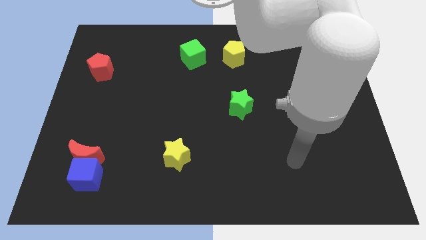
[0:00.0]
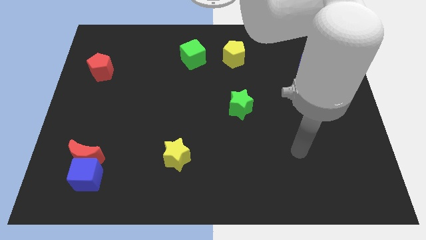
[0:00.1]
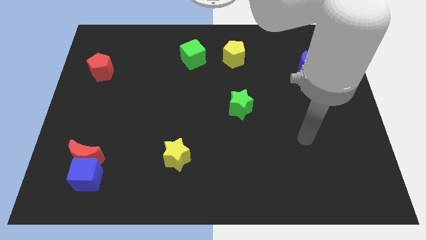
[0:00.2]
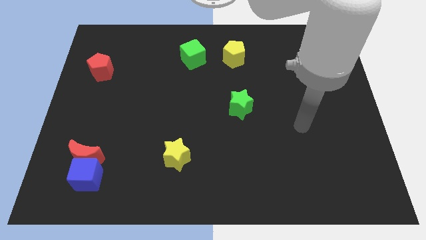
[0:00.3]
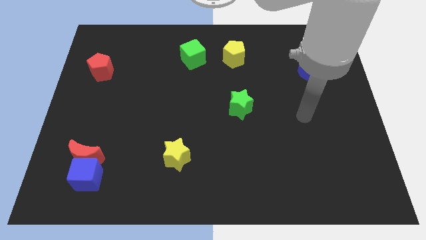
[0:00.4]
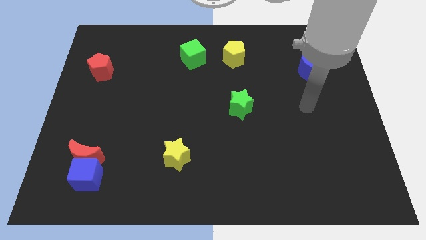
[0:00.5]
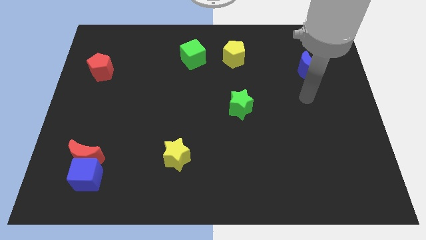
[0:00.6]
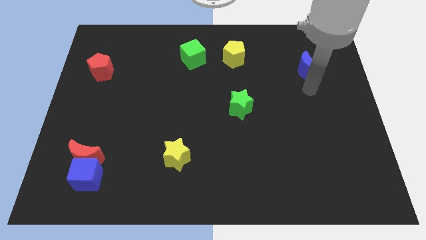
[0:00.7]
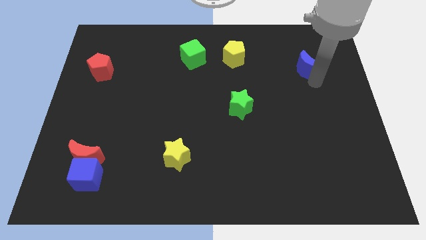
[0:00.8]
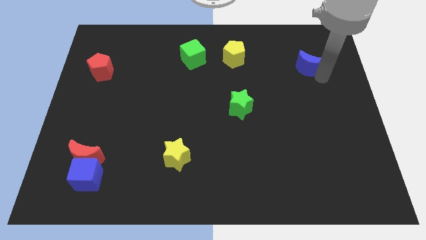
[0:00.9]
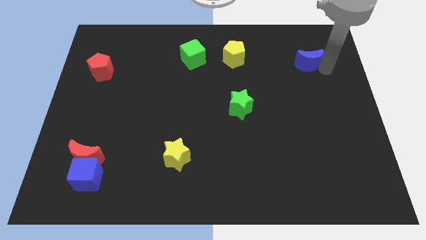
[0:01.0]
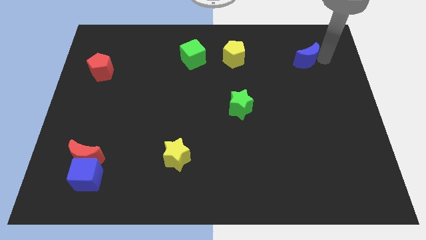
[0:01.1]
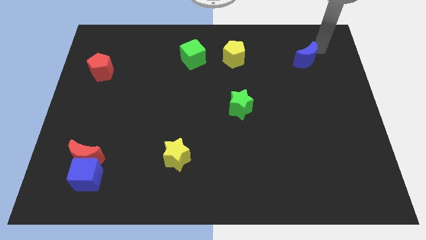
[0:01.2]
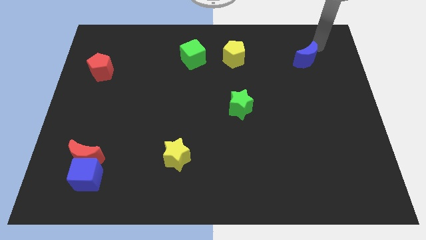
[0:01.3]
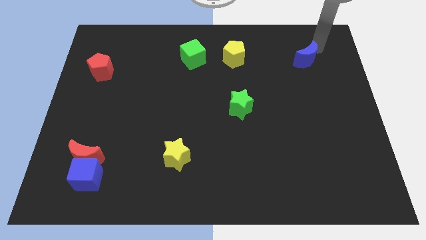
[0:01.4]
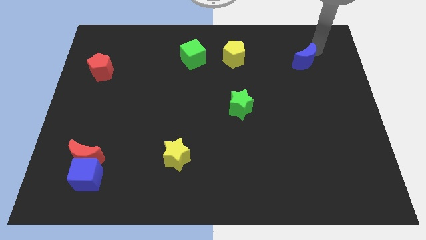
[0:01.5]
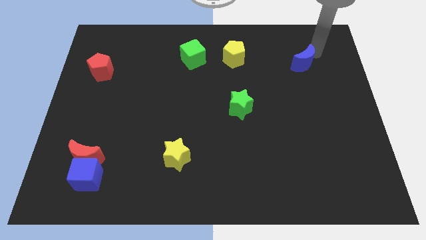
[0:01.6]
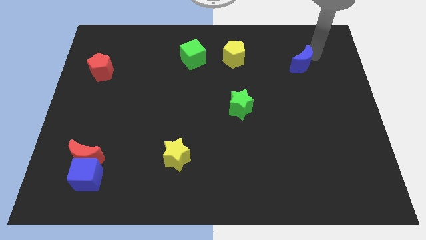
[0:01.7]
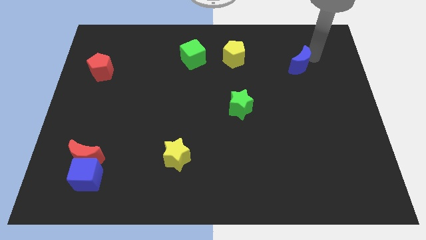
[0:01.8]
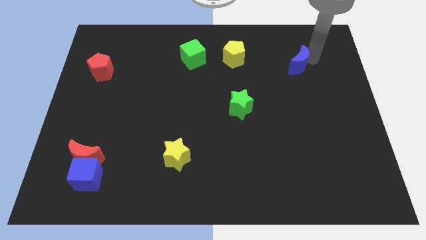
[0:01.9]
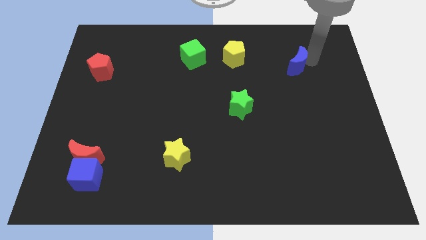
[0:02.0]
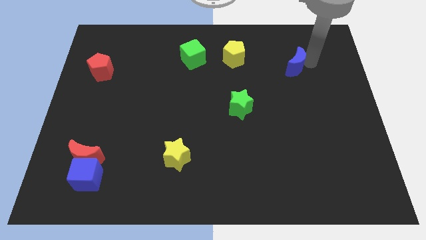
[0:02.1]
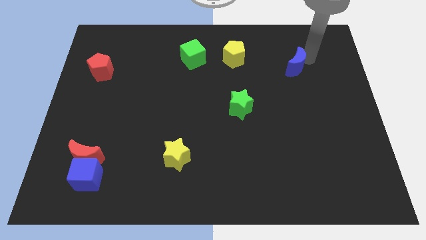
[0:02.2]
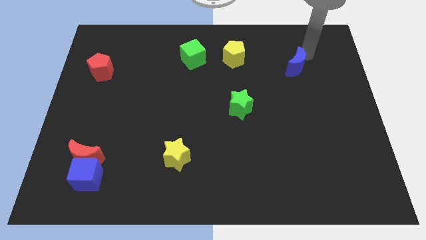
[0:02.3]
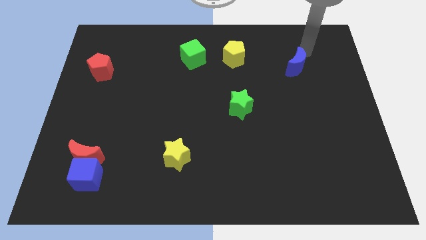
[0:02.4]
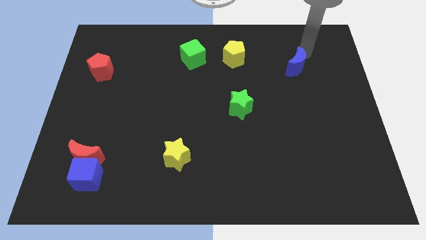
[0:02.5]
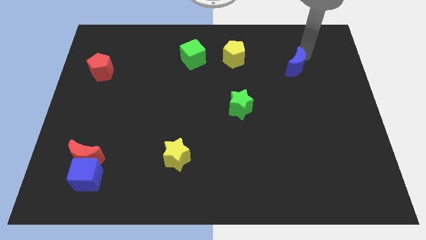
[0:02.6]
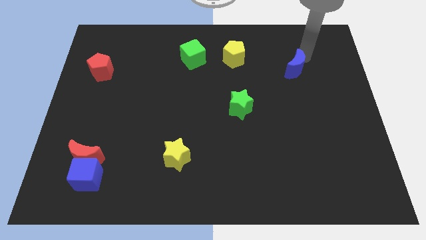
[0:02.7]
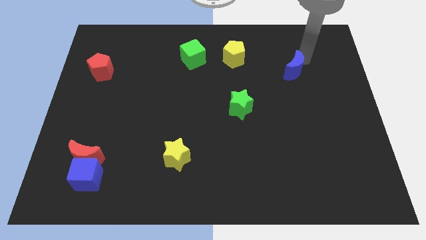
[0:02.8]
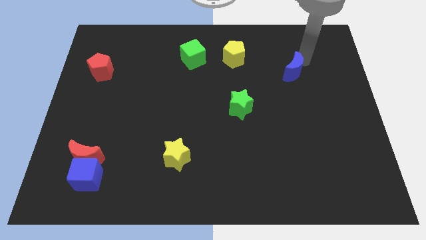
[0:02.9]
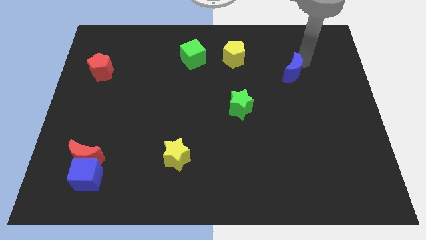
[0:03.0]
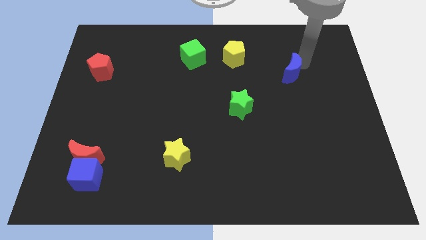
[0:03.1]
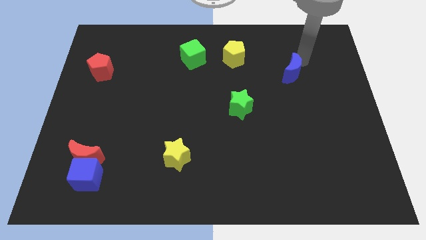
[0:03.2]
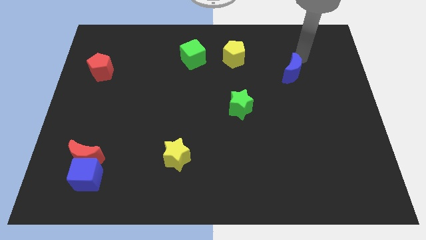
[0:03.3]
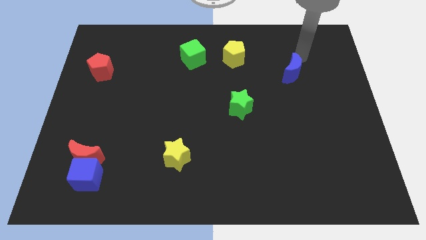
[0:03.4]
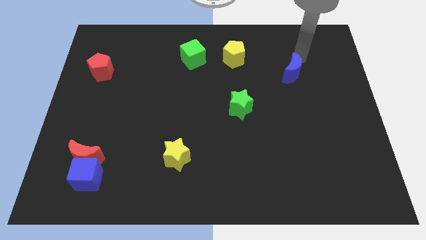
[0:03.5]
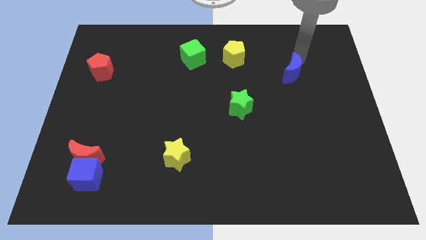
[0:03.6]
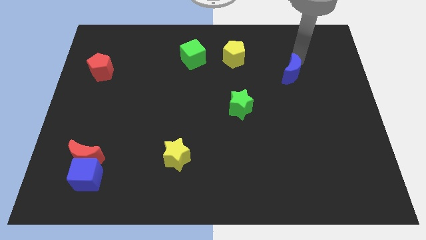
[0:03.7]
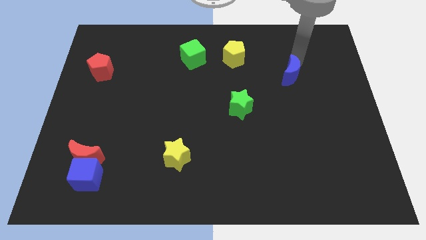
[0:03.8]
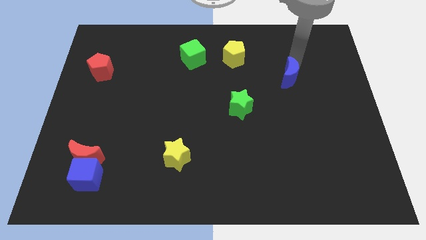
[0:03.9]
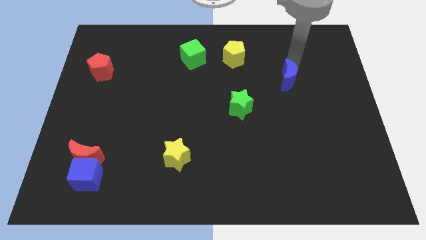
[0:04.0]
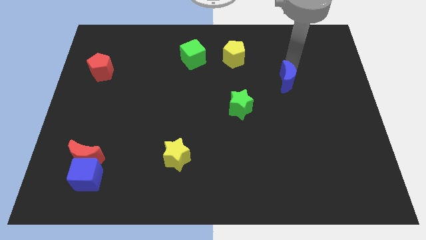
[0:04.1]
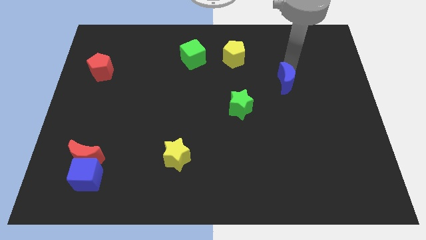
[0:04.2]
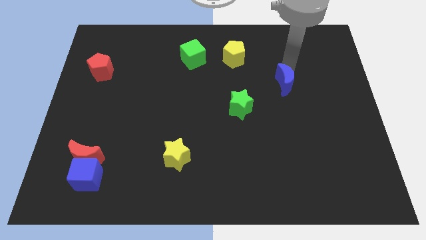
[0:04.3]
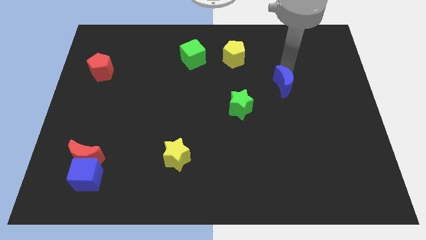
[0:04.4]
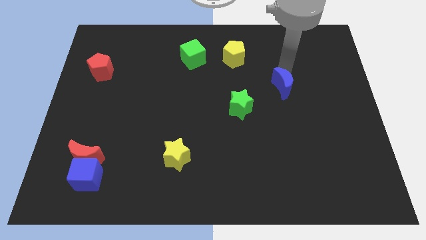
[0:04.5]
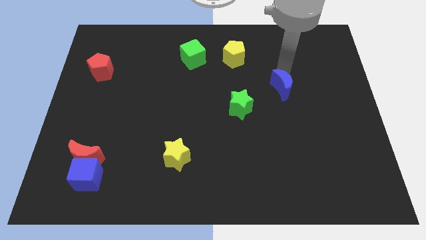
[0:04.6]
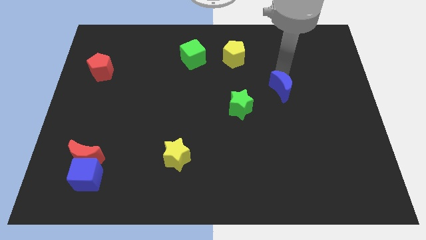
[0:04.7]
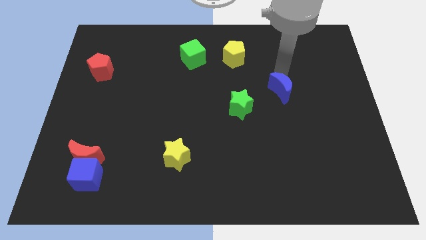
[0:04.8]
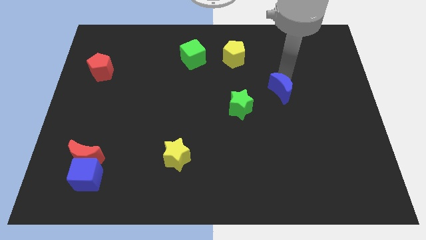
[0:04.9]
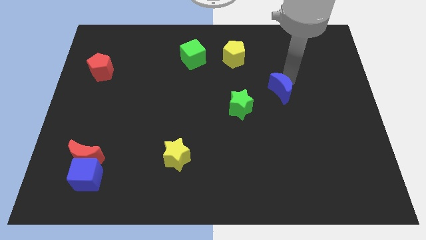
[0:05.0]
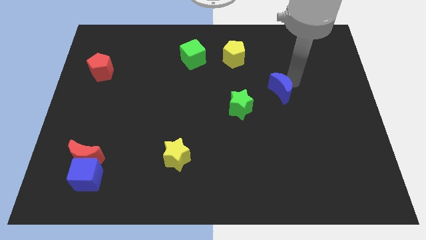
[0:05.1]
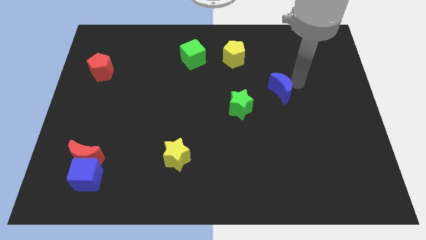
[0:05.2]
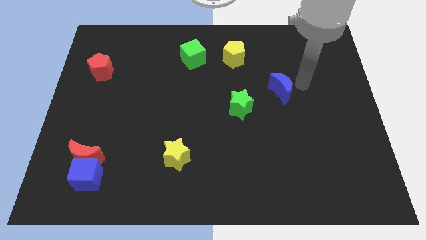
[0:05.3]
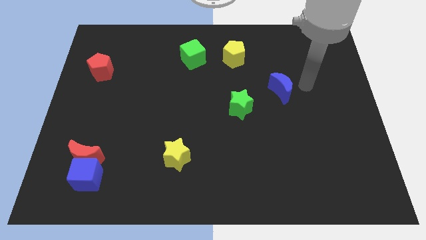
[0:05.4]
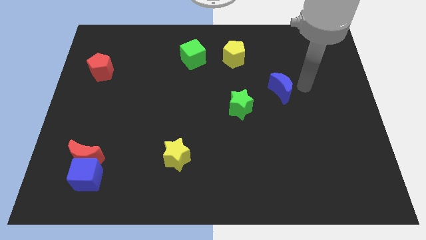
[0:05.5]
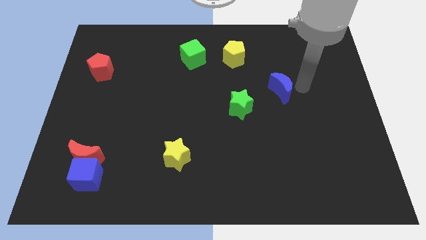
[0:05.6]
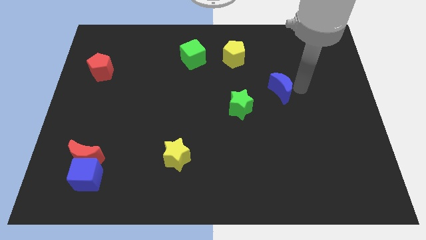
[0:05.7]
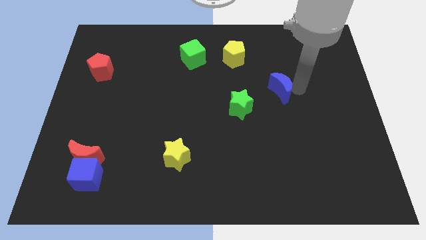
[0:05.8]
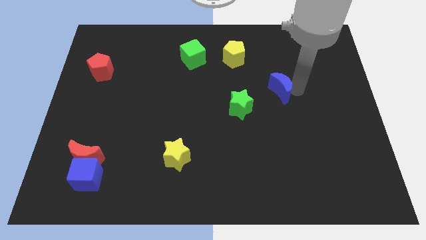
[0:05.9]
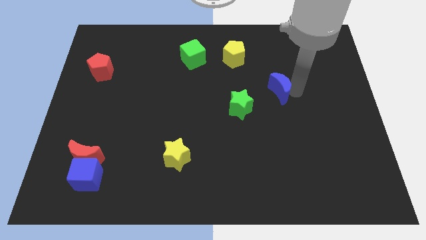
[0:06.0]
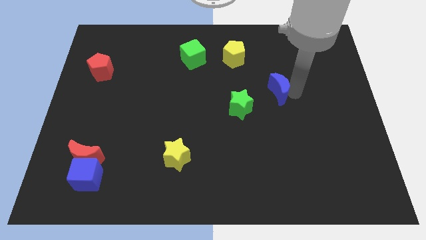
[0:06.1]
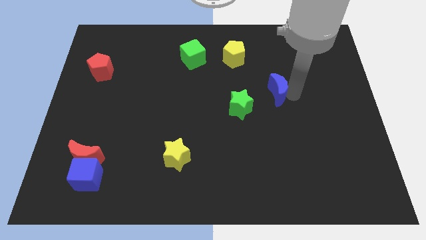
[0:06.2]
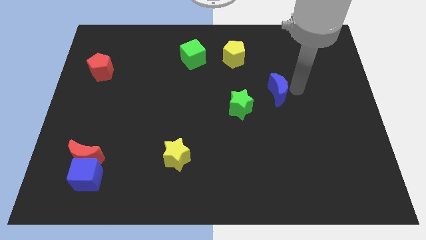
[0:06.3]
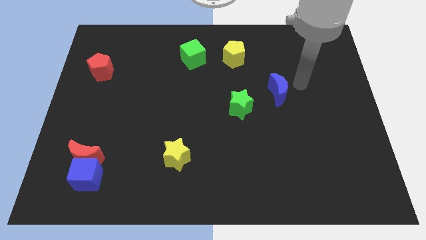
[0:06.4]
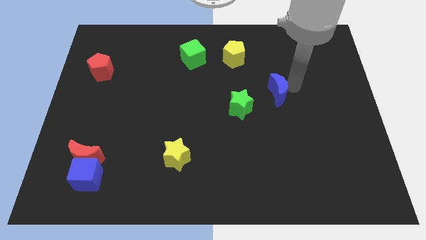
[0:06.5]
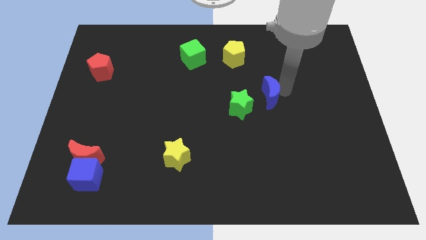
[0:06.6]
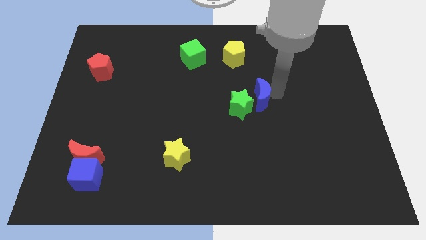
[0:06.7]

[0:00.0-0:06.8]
put the blue moon close to the green star

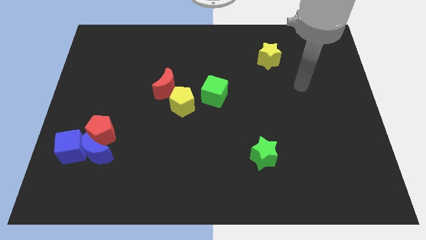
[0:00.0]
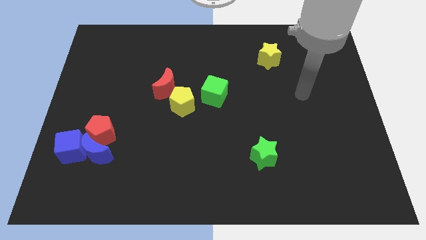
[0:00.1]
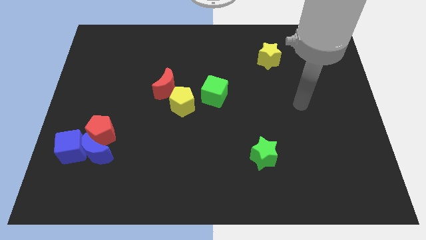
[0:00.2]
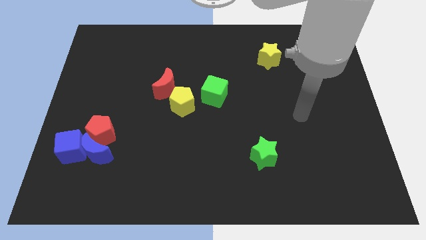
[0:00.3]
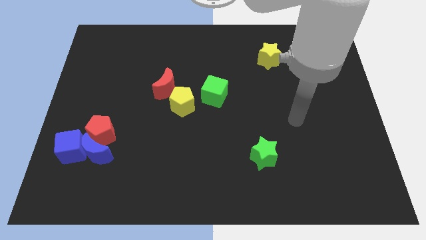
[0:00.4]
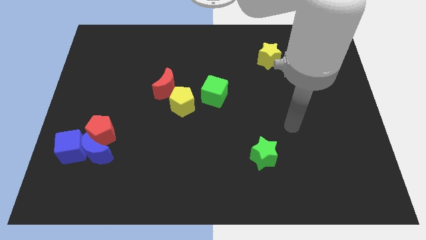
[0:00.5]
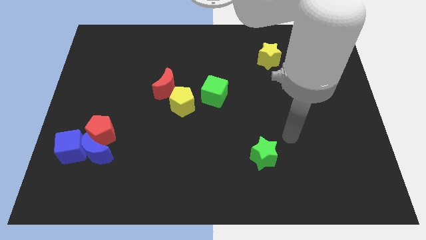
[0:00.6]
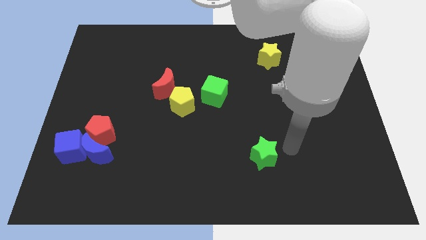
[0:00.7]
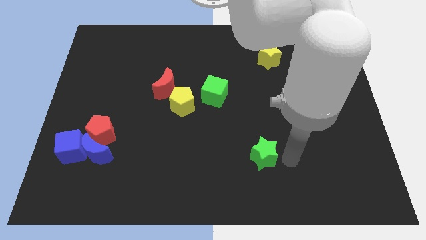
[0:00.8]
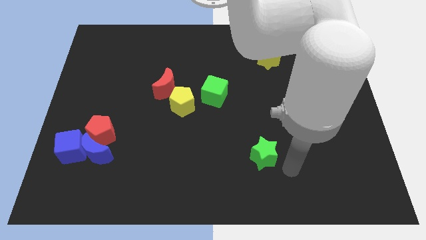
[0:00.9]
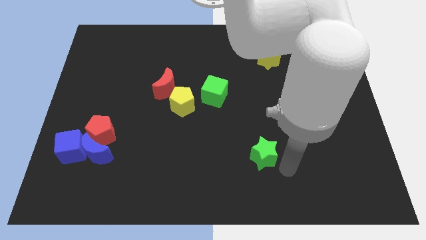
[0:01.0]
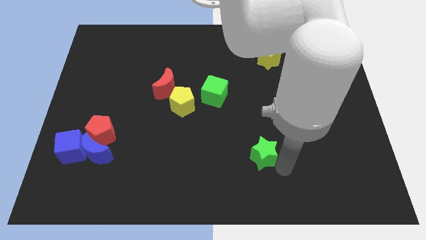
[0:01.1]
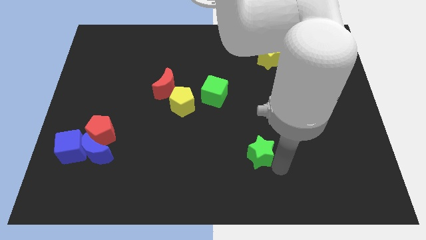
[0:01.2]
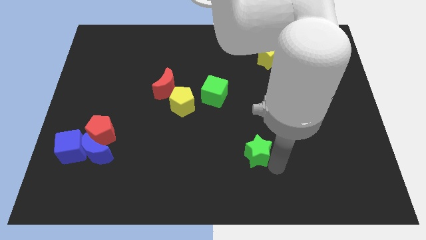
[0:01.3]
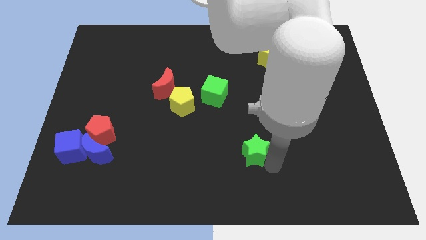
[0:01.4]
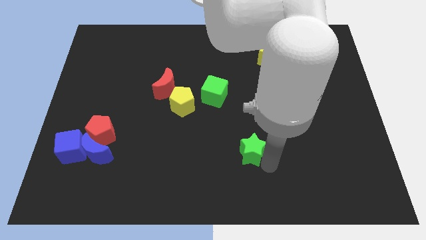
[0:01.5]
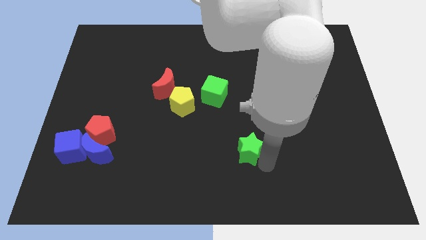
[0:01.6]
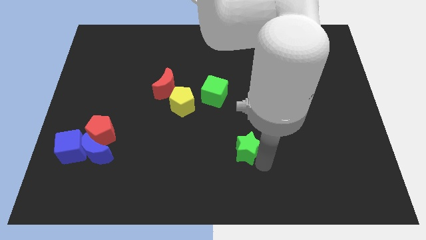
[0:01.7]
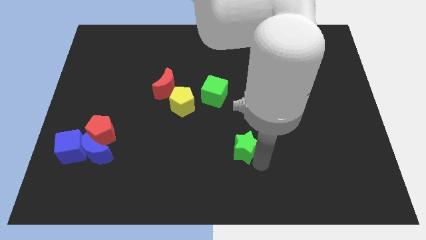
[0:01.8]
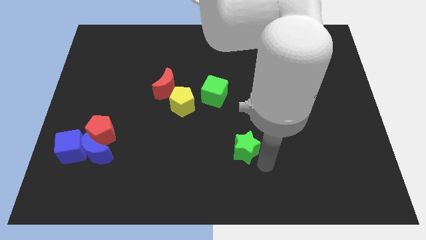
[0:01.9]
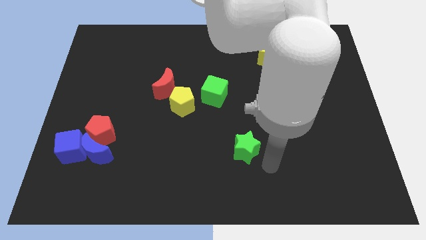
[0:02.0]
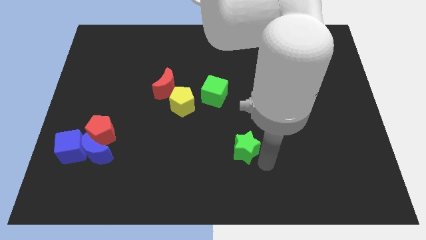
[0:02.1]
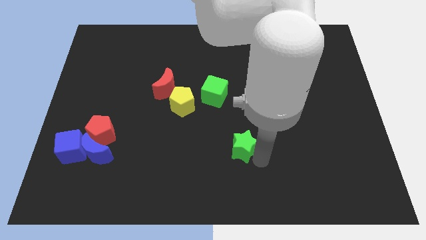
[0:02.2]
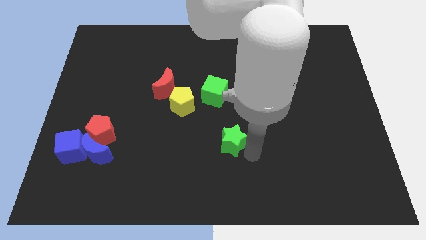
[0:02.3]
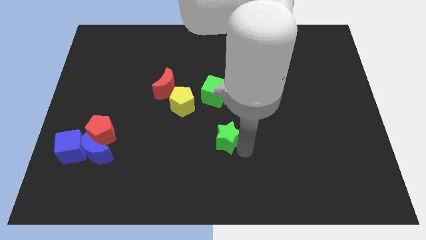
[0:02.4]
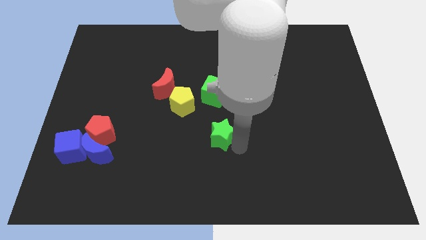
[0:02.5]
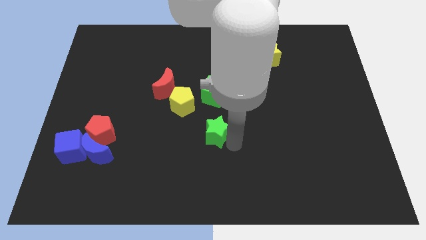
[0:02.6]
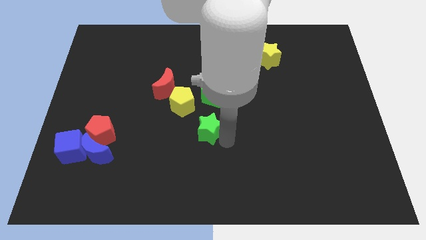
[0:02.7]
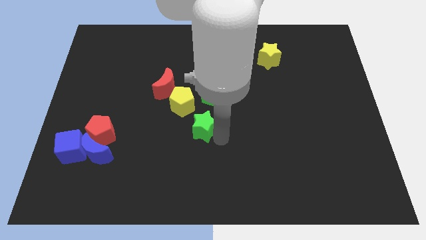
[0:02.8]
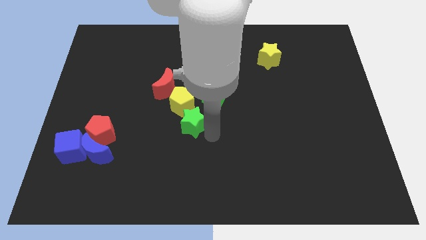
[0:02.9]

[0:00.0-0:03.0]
push the green star to the yellow pentagon
